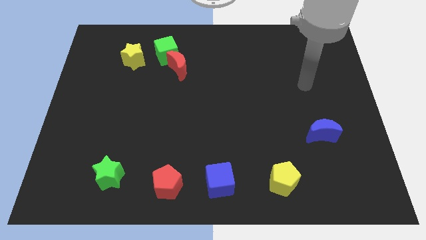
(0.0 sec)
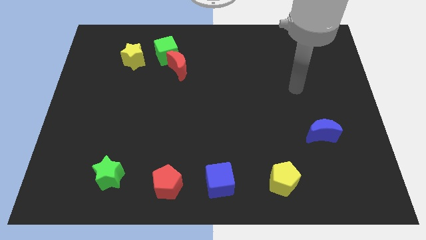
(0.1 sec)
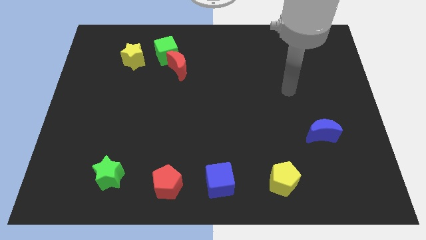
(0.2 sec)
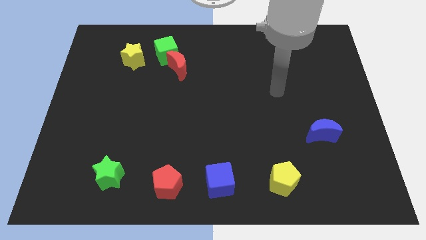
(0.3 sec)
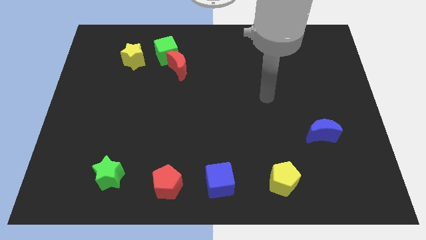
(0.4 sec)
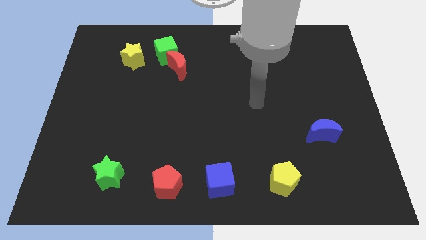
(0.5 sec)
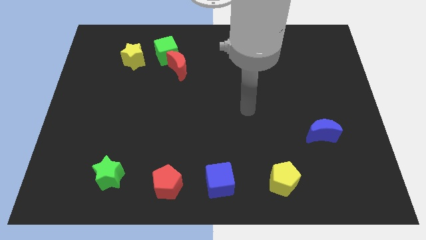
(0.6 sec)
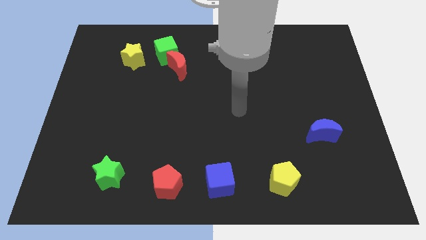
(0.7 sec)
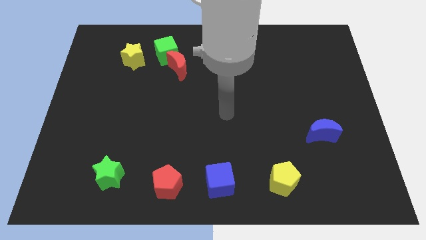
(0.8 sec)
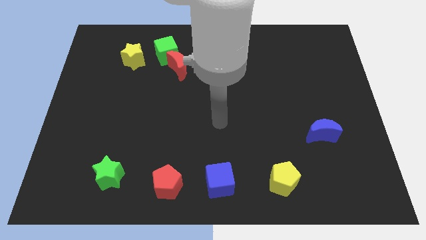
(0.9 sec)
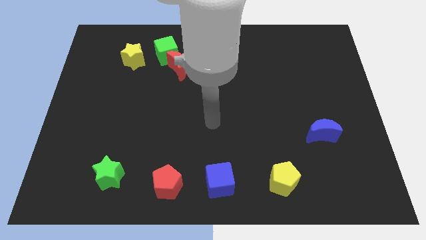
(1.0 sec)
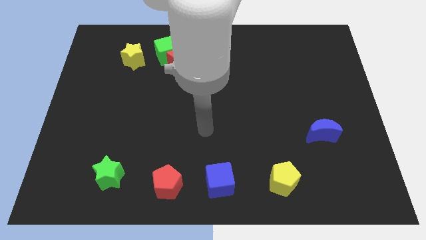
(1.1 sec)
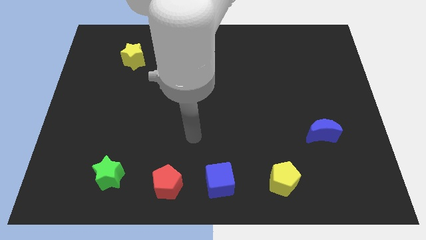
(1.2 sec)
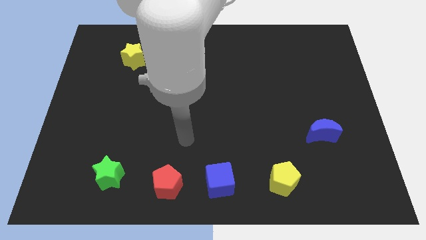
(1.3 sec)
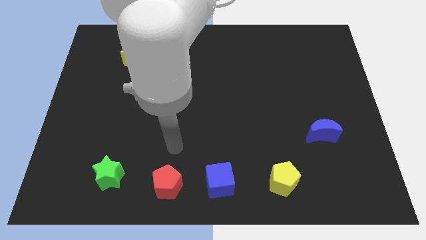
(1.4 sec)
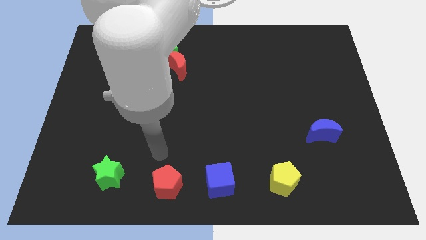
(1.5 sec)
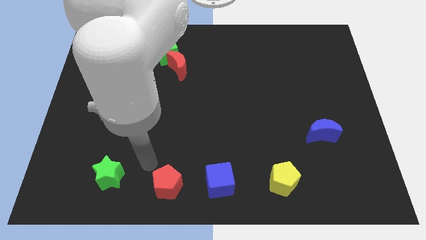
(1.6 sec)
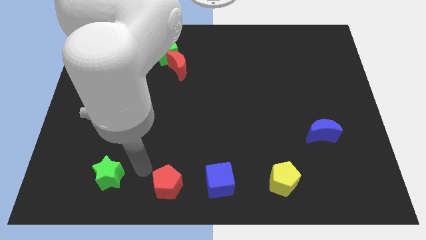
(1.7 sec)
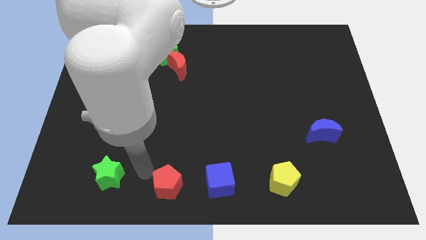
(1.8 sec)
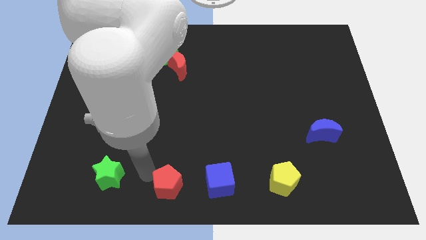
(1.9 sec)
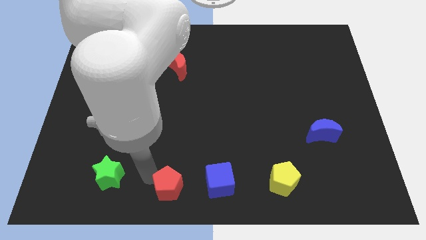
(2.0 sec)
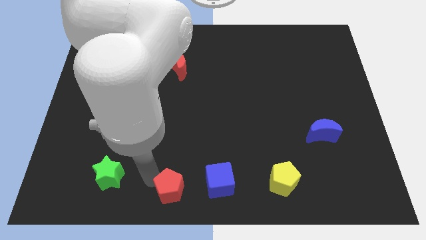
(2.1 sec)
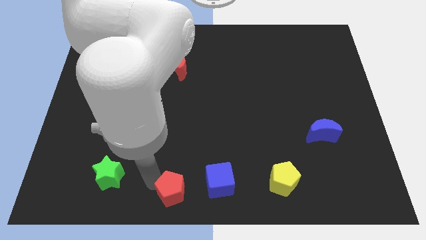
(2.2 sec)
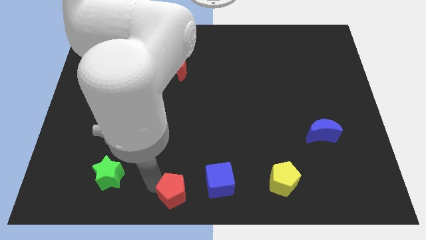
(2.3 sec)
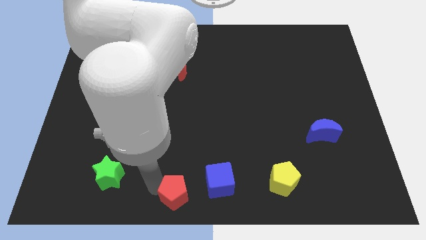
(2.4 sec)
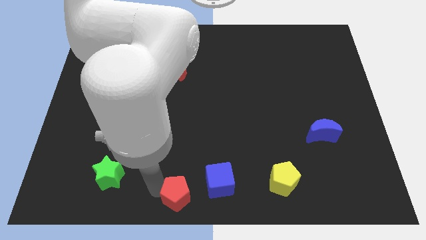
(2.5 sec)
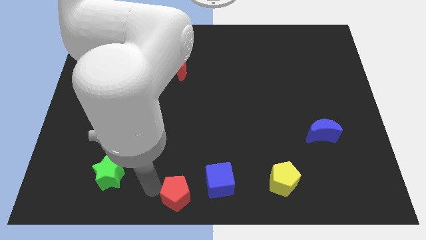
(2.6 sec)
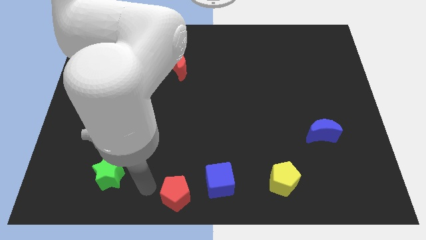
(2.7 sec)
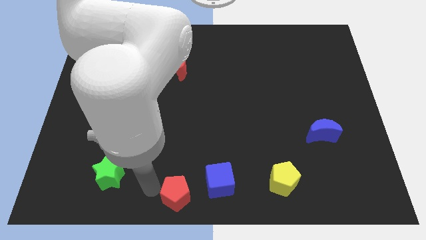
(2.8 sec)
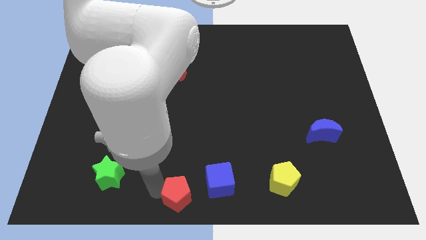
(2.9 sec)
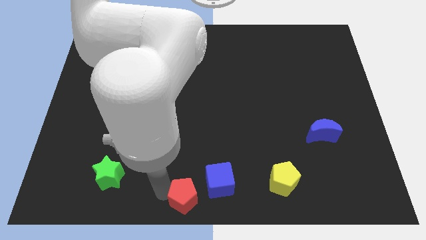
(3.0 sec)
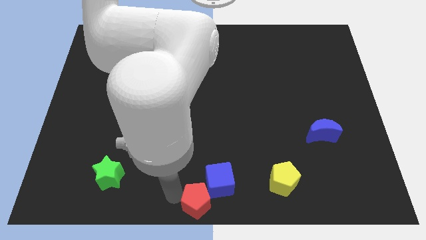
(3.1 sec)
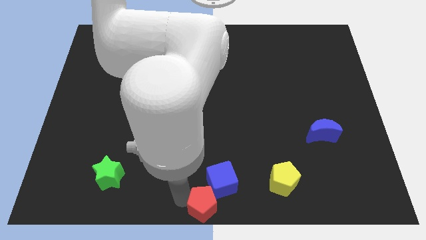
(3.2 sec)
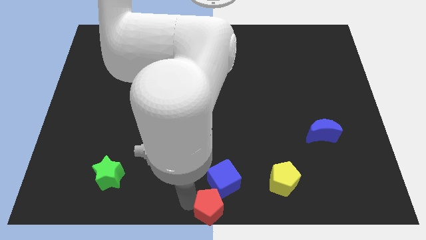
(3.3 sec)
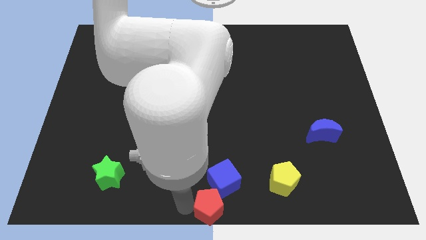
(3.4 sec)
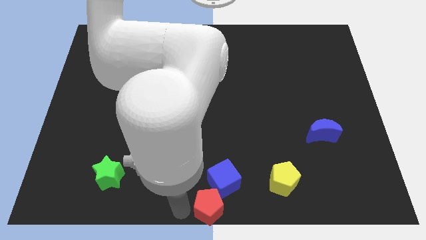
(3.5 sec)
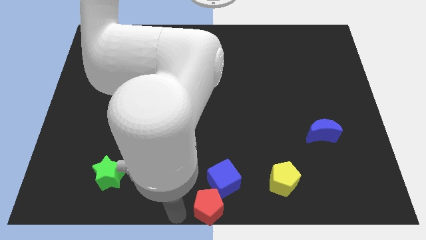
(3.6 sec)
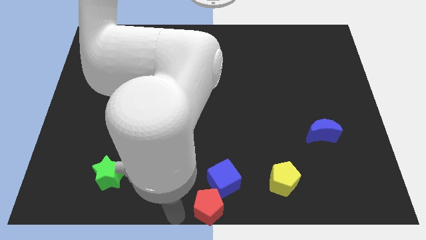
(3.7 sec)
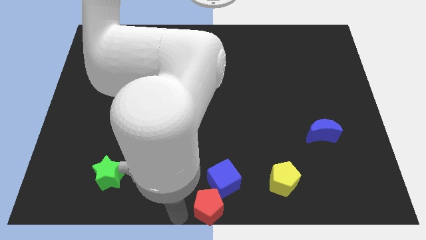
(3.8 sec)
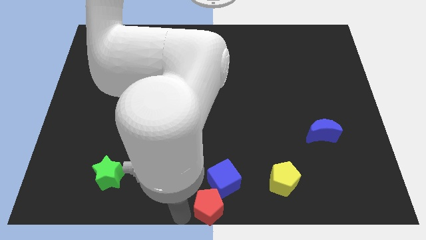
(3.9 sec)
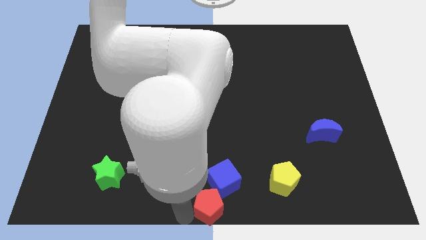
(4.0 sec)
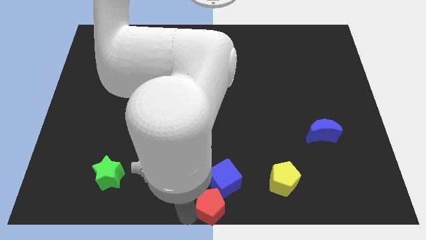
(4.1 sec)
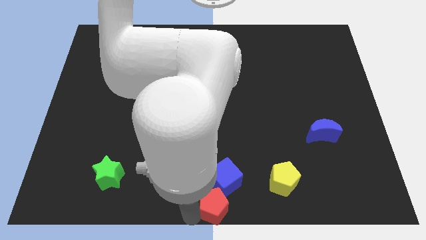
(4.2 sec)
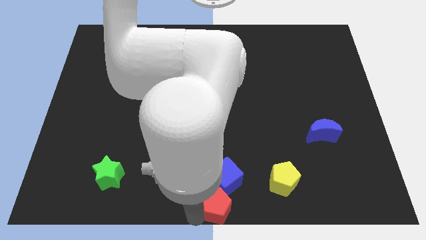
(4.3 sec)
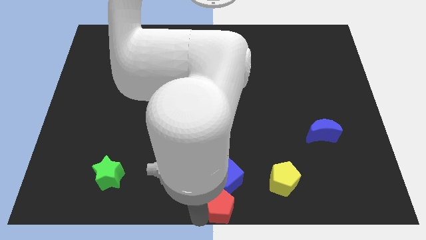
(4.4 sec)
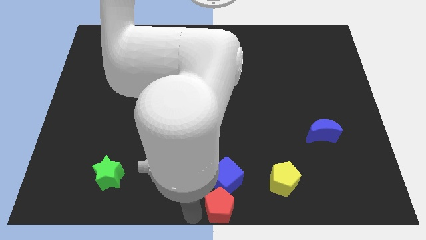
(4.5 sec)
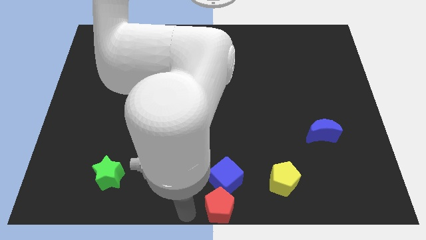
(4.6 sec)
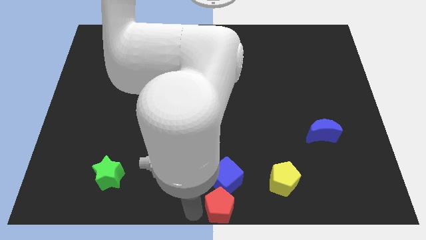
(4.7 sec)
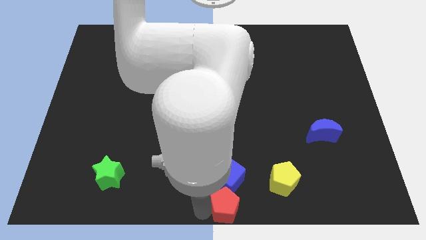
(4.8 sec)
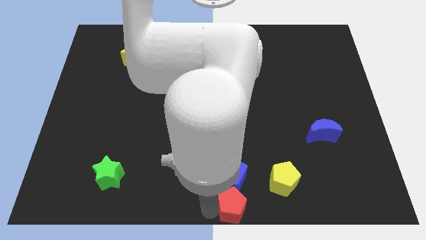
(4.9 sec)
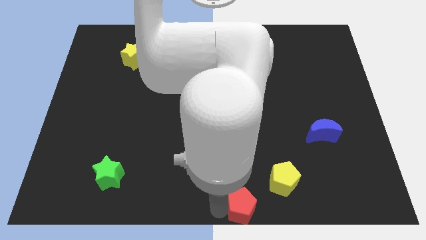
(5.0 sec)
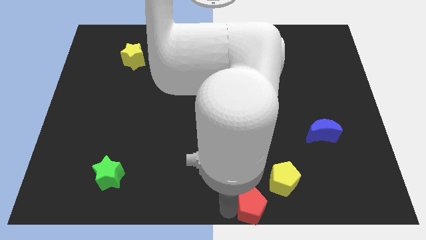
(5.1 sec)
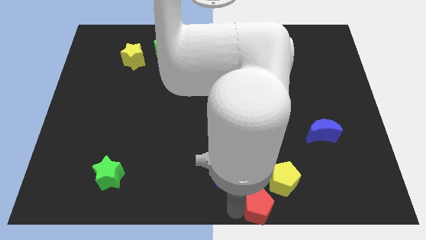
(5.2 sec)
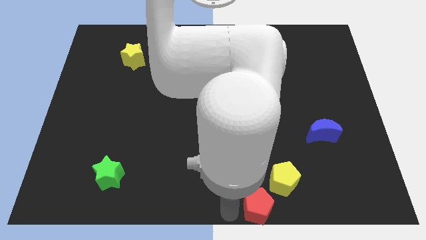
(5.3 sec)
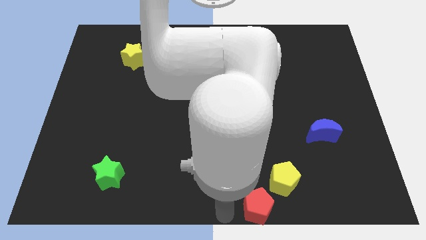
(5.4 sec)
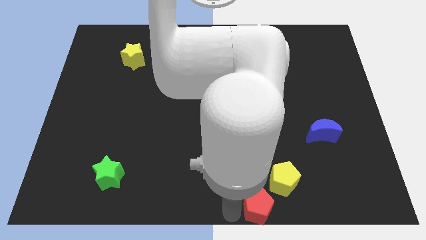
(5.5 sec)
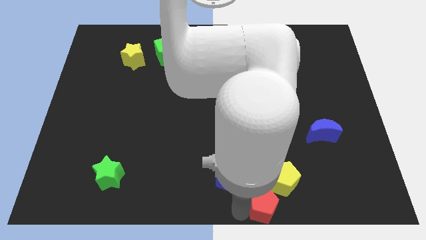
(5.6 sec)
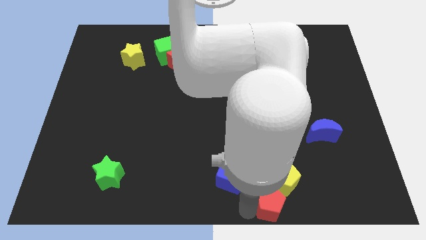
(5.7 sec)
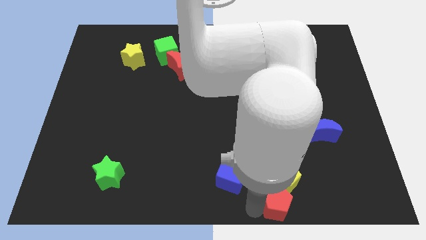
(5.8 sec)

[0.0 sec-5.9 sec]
move the red pentagon to the right

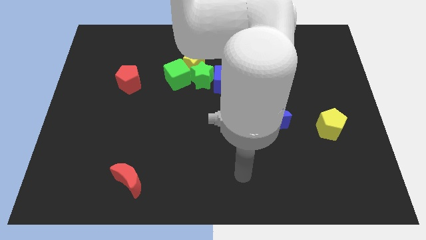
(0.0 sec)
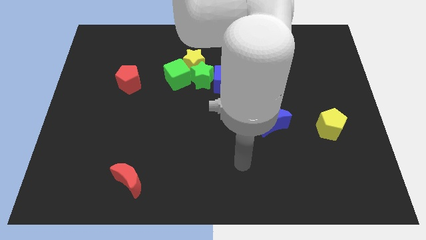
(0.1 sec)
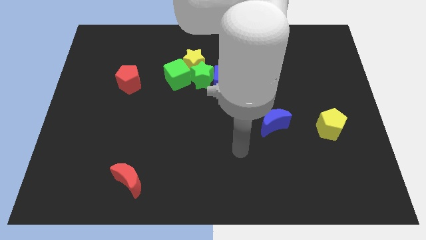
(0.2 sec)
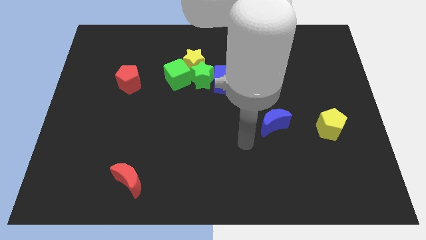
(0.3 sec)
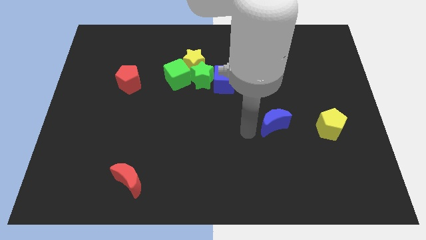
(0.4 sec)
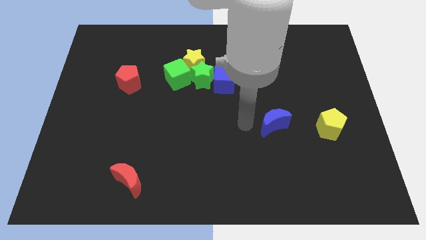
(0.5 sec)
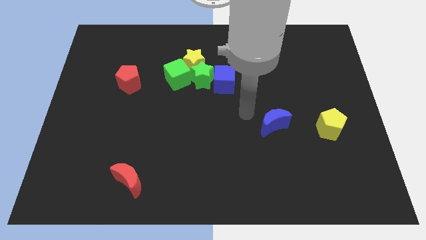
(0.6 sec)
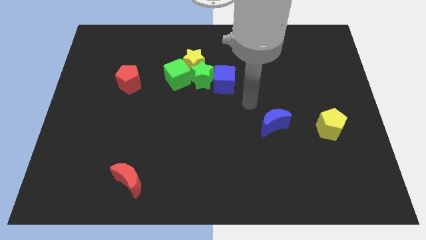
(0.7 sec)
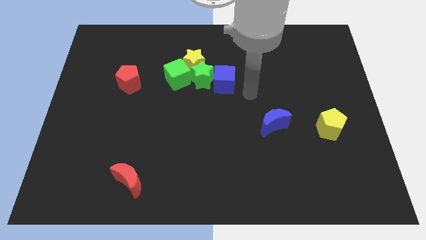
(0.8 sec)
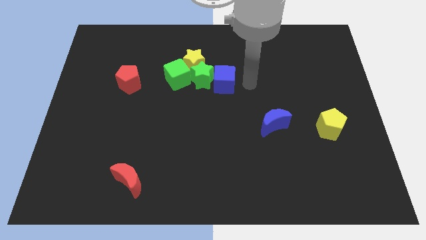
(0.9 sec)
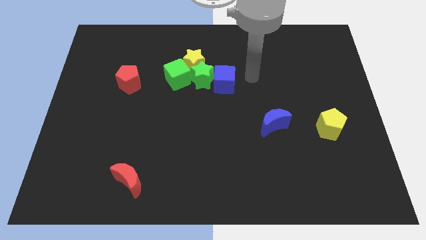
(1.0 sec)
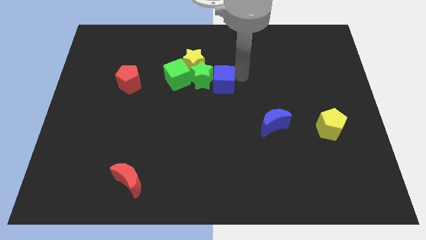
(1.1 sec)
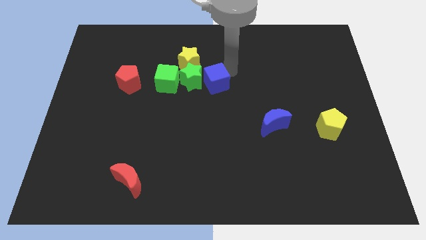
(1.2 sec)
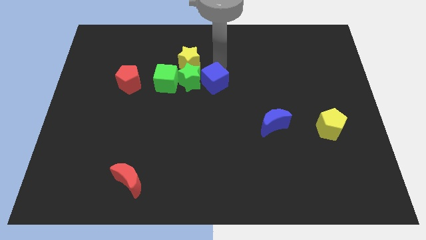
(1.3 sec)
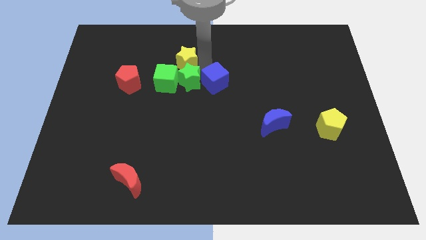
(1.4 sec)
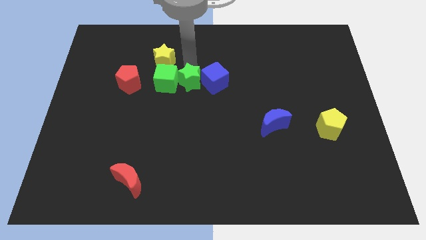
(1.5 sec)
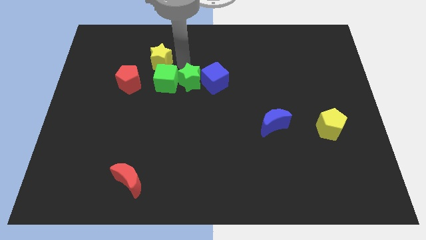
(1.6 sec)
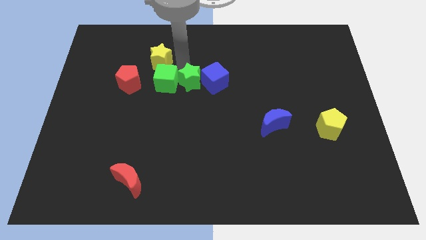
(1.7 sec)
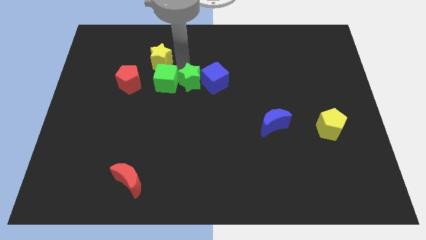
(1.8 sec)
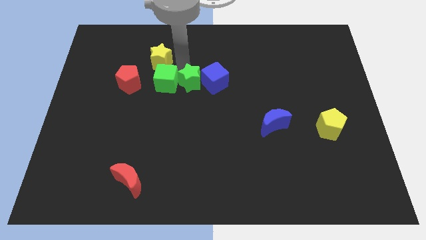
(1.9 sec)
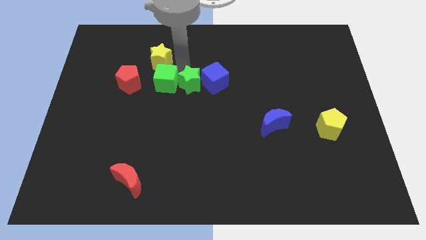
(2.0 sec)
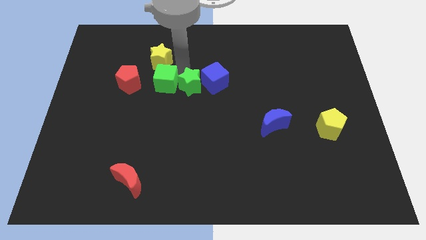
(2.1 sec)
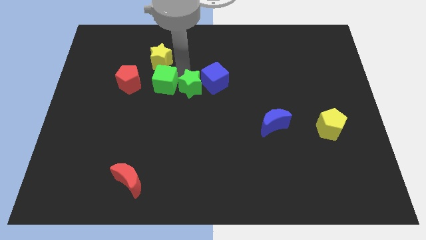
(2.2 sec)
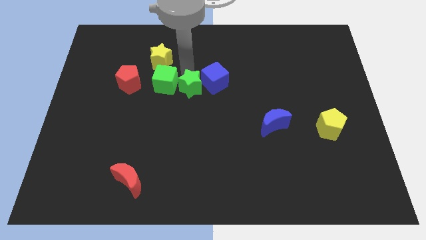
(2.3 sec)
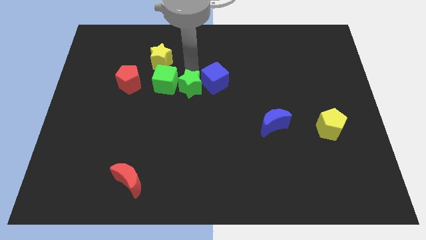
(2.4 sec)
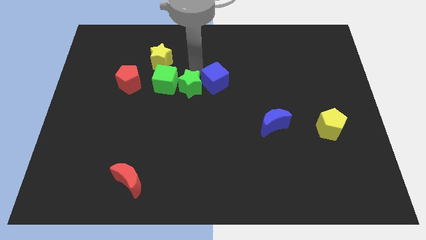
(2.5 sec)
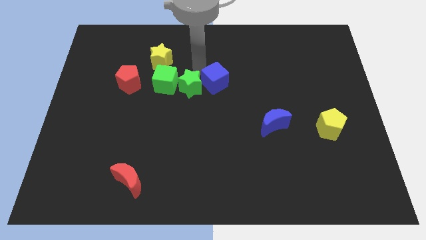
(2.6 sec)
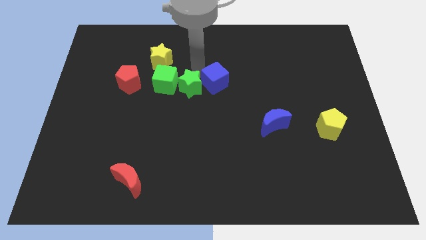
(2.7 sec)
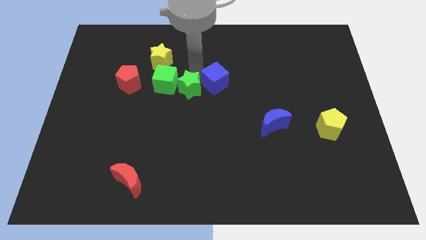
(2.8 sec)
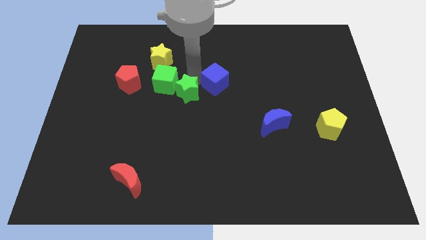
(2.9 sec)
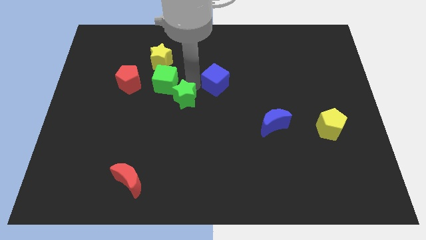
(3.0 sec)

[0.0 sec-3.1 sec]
slightly slide the green star down and left
